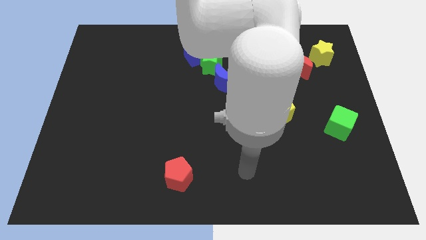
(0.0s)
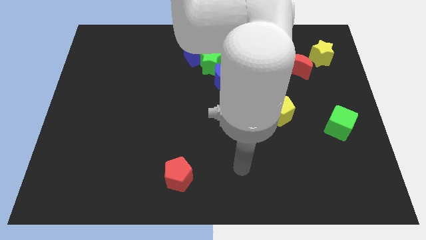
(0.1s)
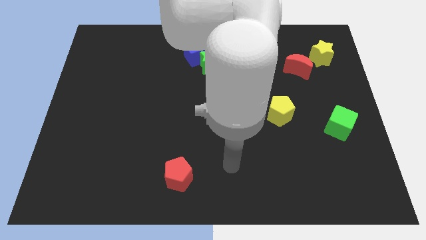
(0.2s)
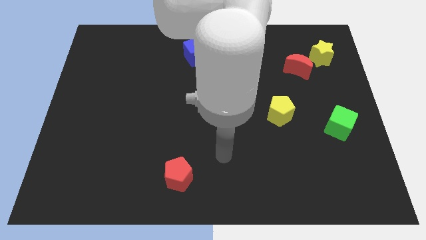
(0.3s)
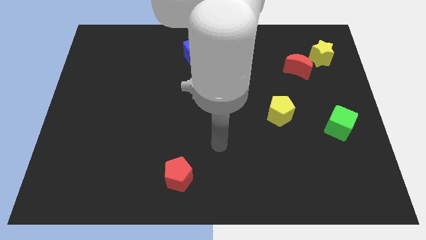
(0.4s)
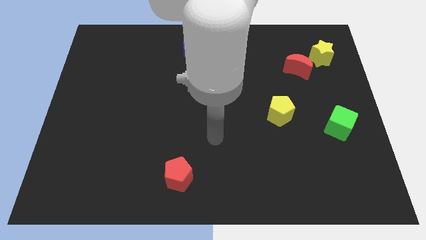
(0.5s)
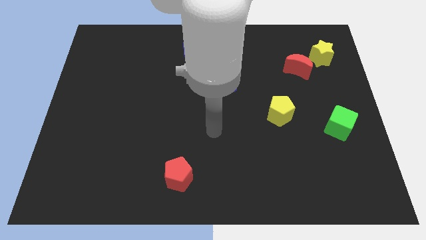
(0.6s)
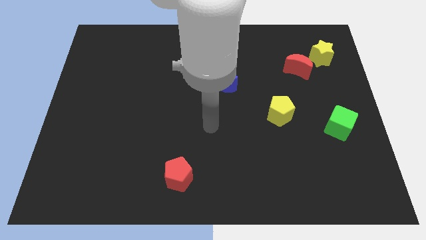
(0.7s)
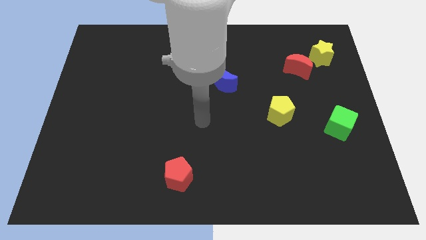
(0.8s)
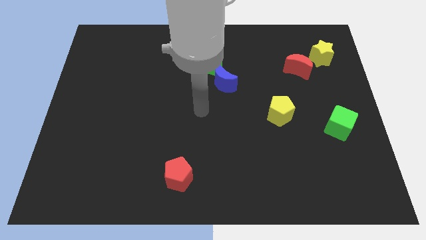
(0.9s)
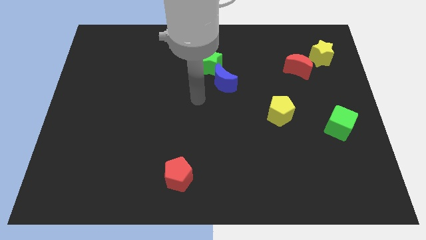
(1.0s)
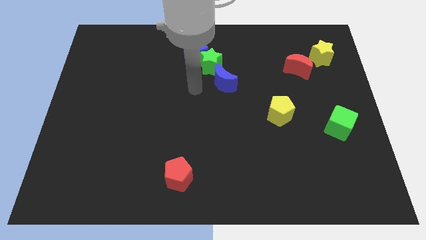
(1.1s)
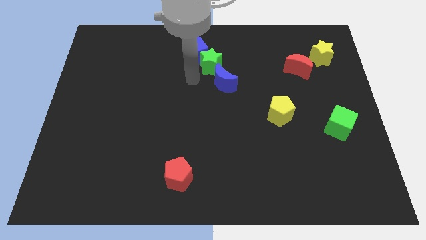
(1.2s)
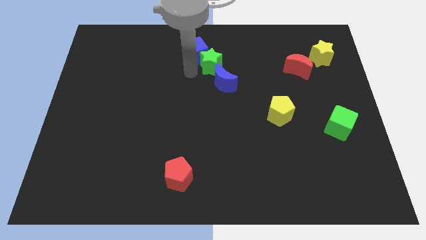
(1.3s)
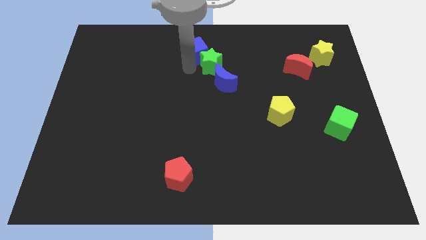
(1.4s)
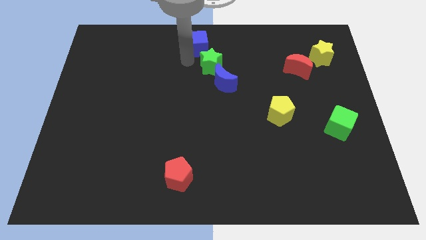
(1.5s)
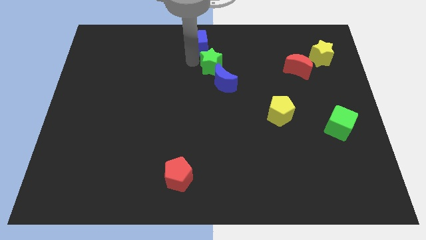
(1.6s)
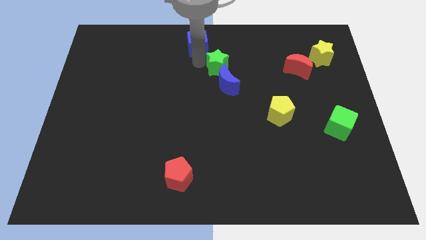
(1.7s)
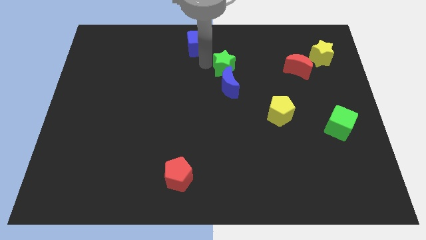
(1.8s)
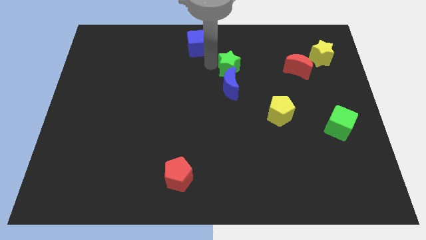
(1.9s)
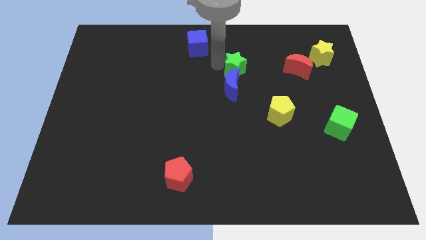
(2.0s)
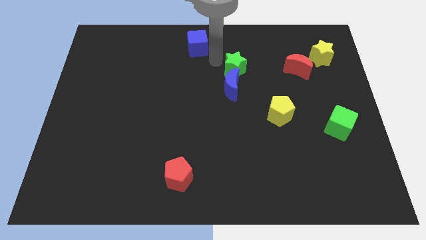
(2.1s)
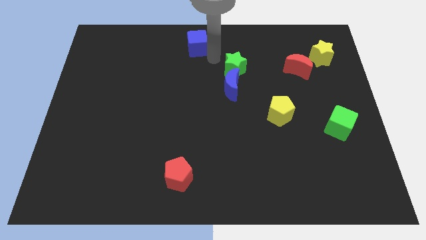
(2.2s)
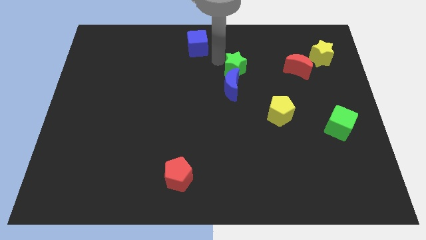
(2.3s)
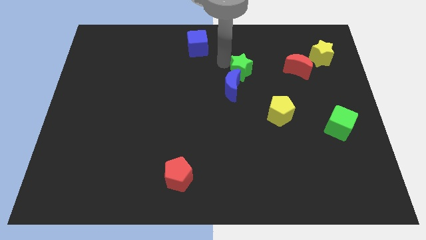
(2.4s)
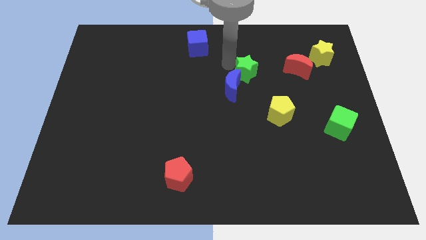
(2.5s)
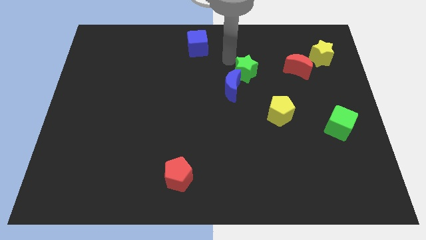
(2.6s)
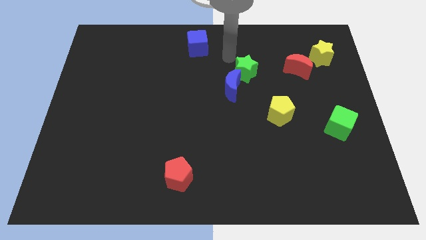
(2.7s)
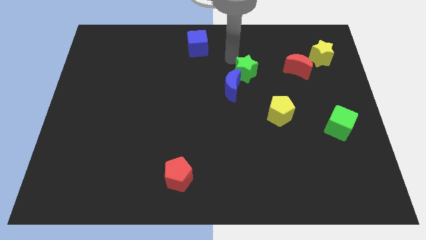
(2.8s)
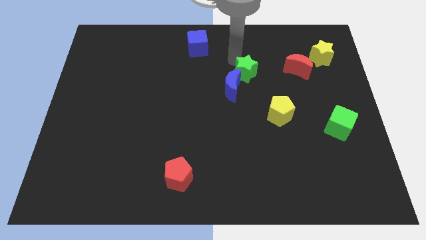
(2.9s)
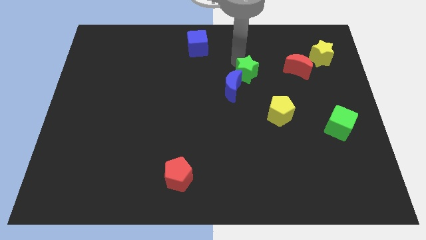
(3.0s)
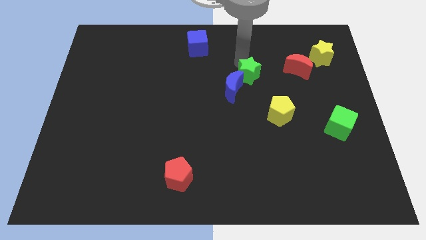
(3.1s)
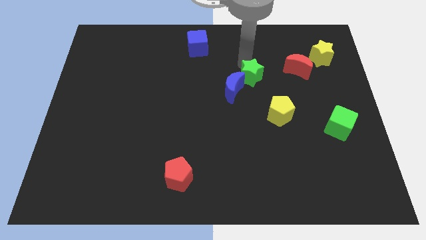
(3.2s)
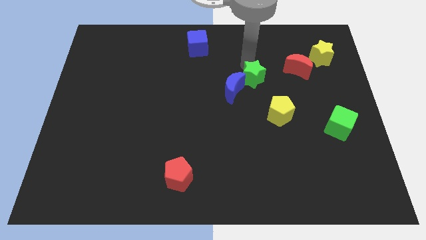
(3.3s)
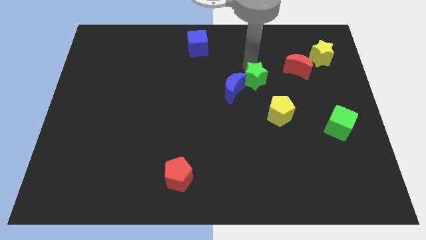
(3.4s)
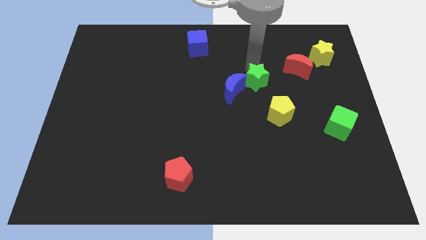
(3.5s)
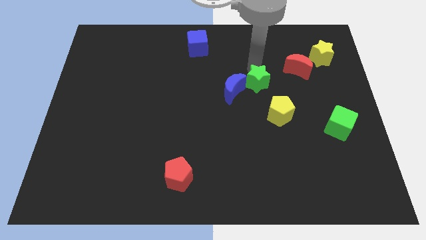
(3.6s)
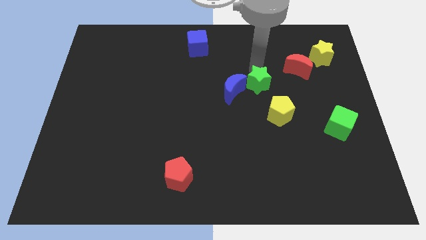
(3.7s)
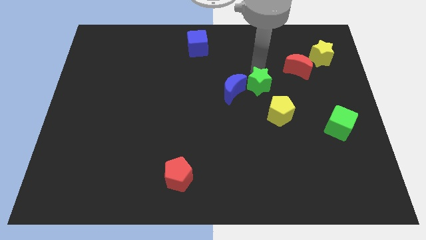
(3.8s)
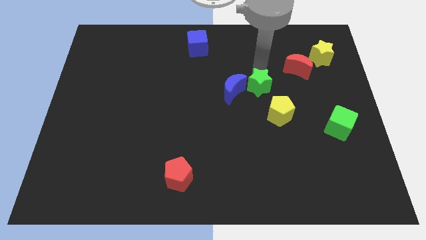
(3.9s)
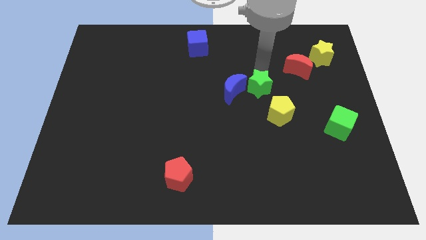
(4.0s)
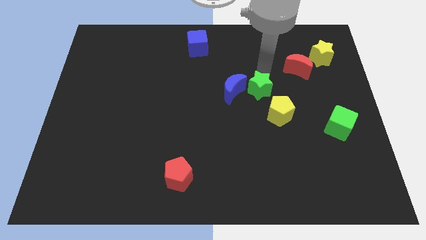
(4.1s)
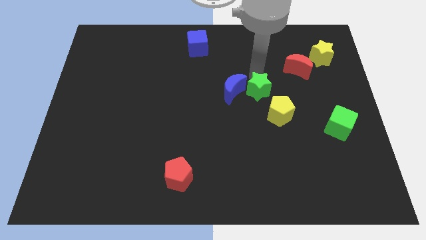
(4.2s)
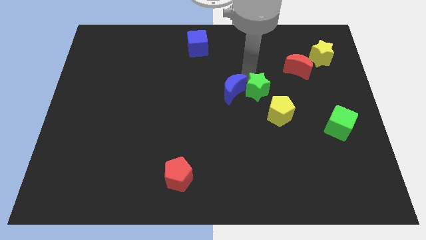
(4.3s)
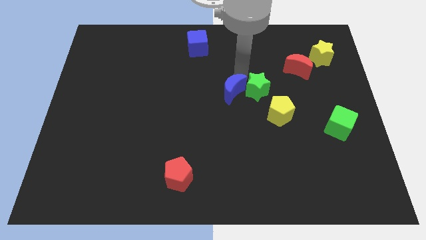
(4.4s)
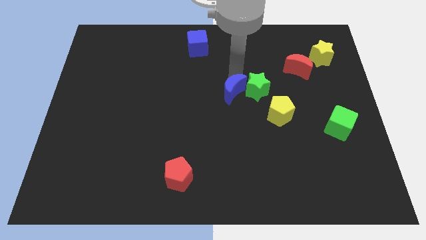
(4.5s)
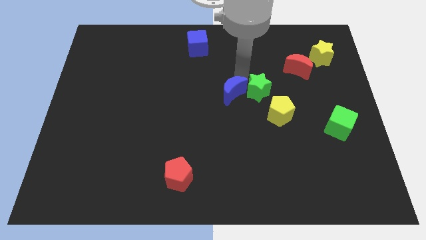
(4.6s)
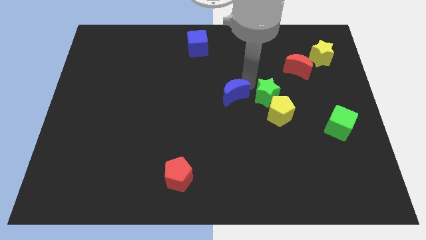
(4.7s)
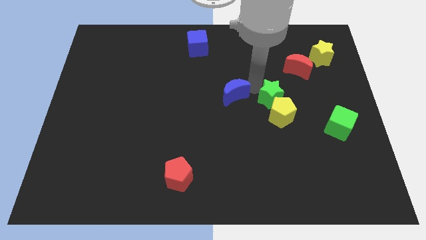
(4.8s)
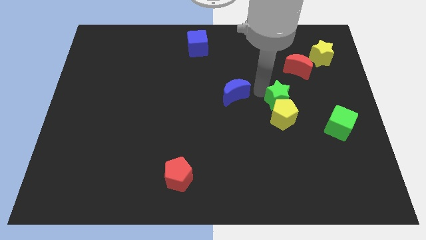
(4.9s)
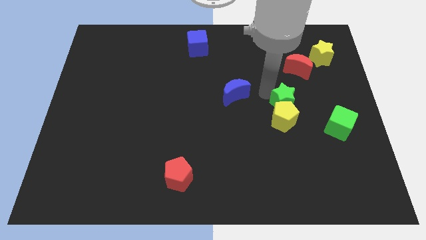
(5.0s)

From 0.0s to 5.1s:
move the green star diagonally down and to the right

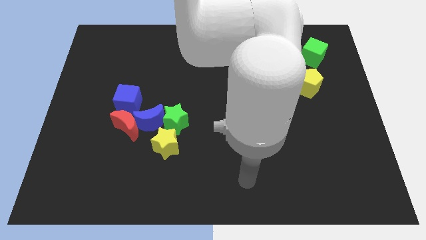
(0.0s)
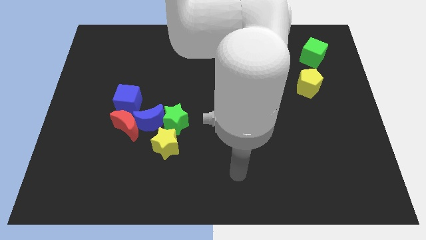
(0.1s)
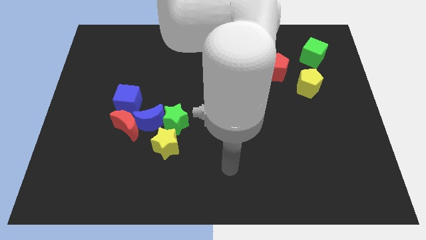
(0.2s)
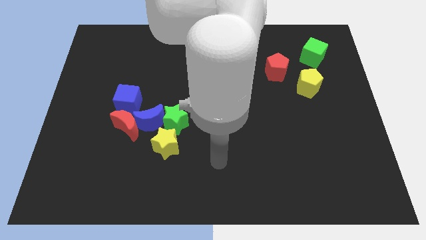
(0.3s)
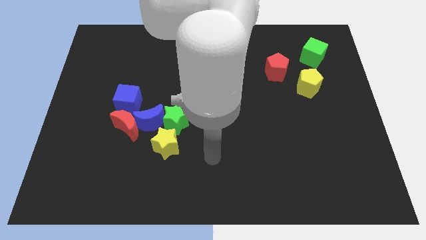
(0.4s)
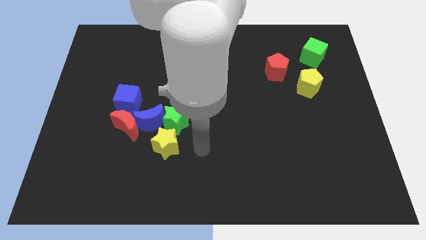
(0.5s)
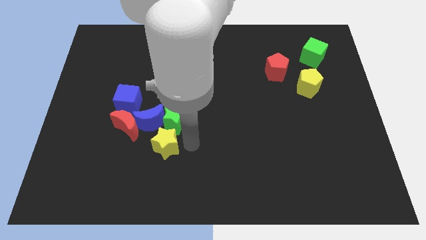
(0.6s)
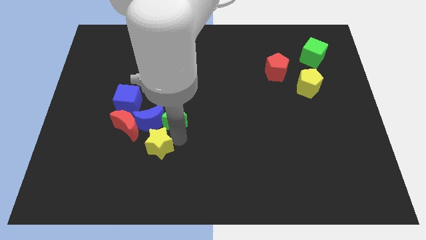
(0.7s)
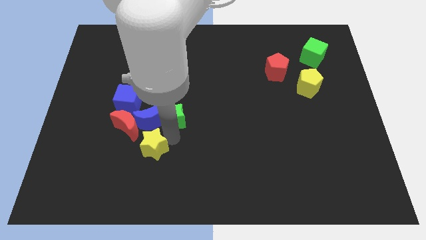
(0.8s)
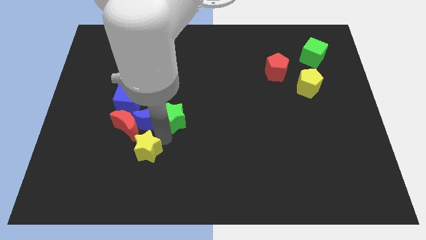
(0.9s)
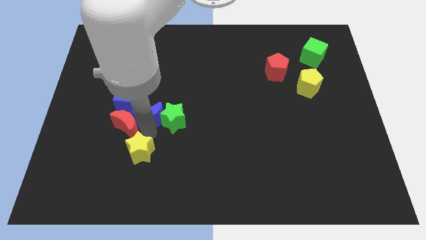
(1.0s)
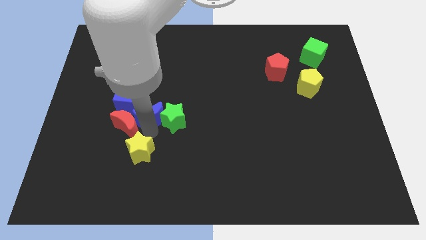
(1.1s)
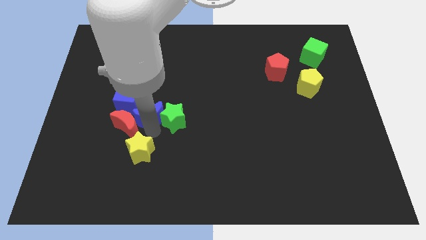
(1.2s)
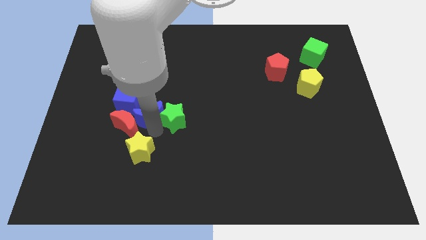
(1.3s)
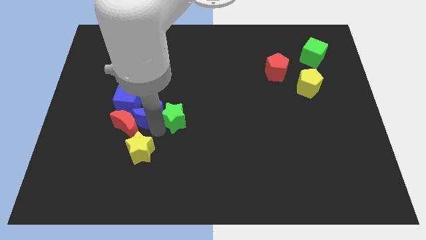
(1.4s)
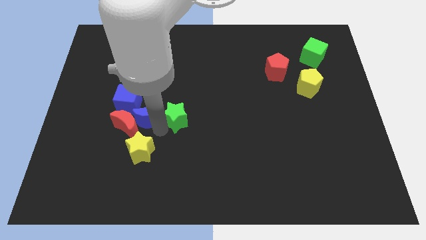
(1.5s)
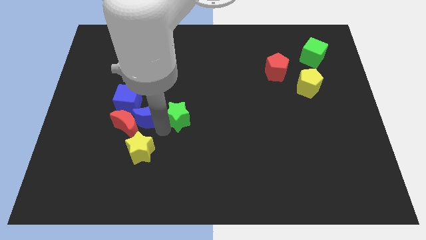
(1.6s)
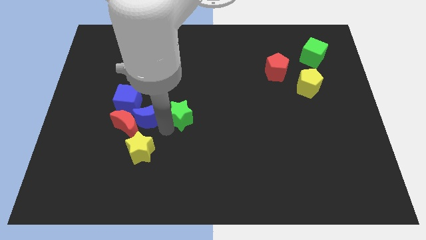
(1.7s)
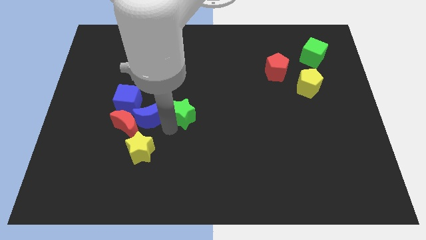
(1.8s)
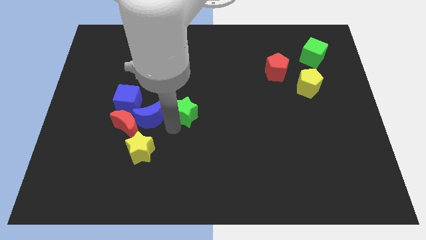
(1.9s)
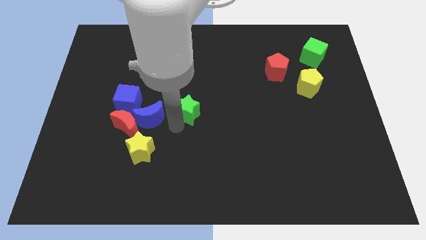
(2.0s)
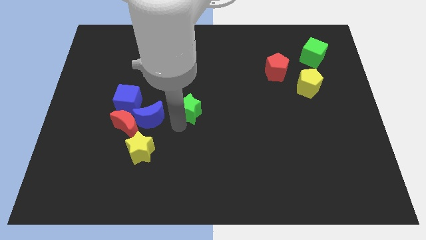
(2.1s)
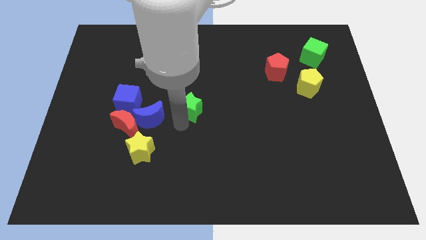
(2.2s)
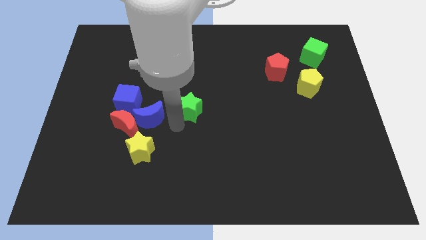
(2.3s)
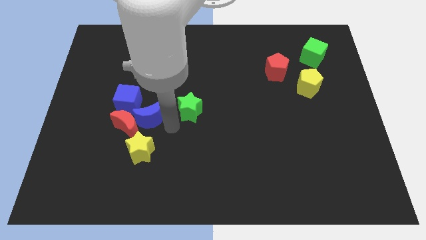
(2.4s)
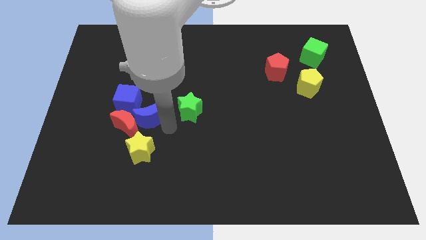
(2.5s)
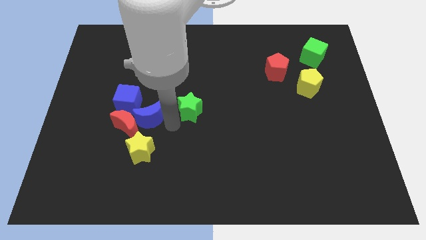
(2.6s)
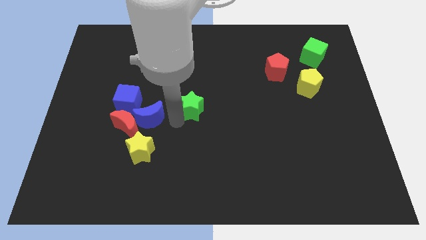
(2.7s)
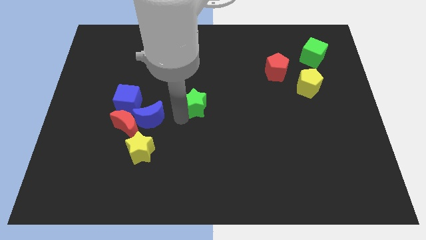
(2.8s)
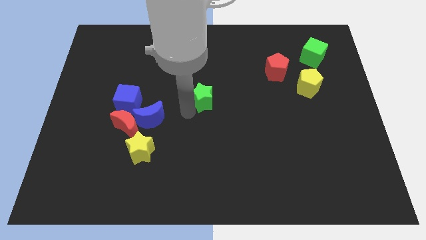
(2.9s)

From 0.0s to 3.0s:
slightly push the green star up and to the right

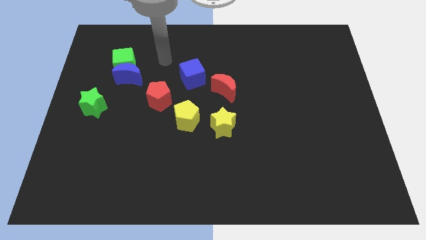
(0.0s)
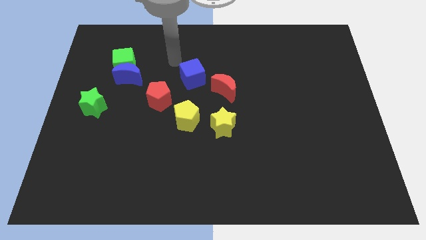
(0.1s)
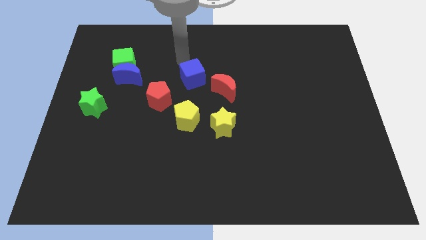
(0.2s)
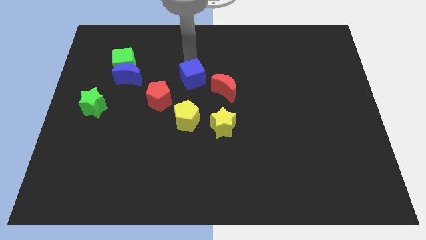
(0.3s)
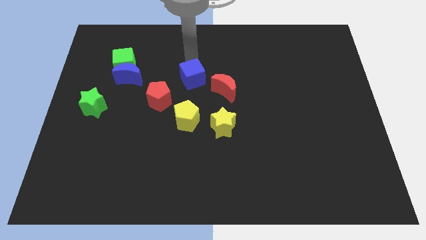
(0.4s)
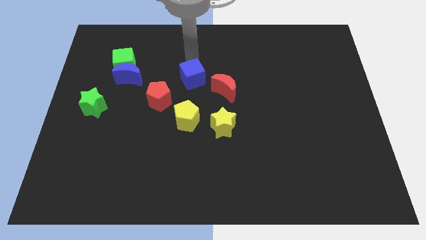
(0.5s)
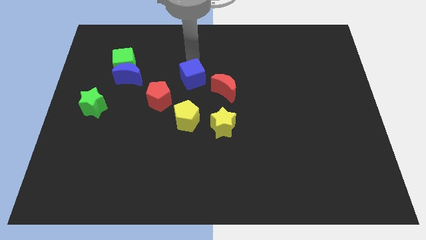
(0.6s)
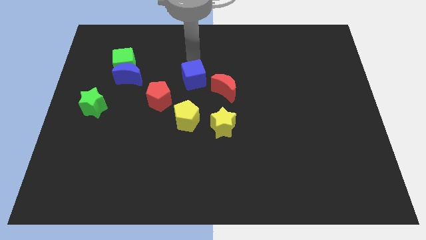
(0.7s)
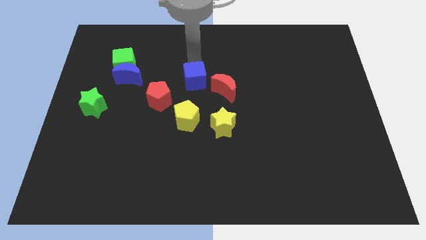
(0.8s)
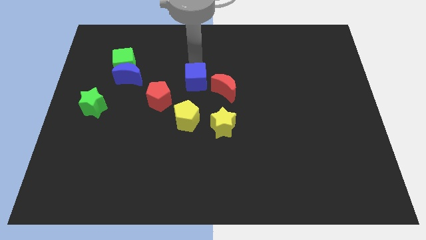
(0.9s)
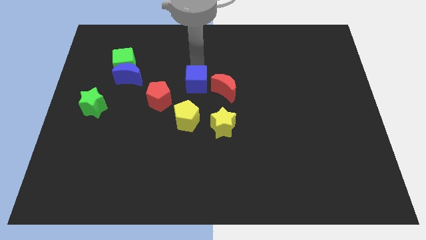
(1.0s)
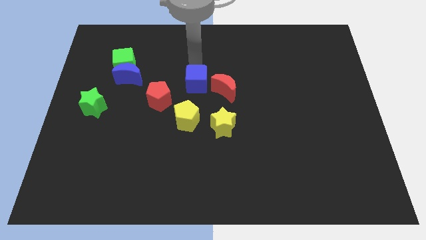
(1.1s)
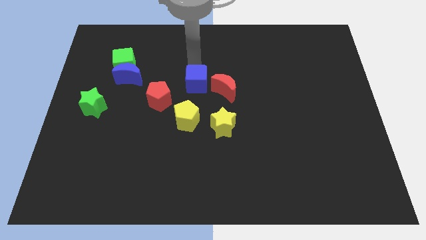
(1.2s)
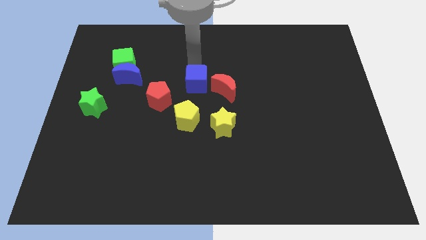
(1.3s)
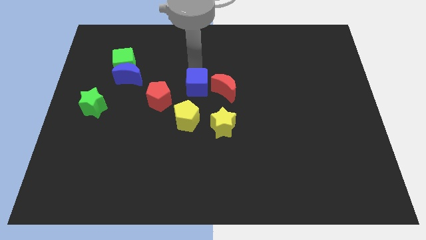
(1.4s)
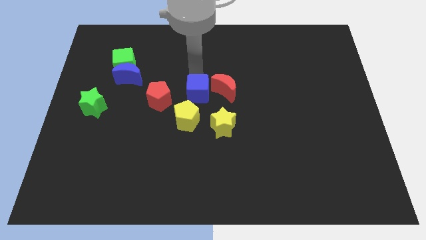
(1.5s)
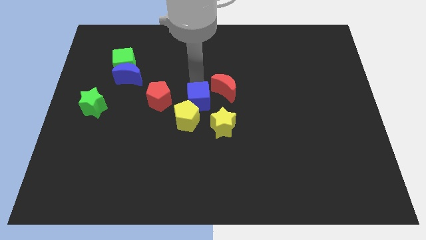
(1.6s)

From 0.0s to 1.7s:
slide the blue cube down somewhat
